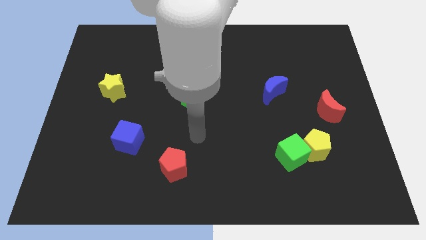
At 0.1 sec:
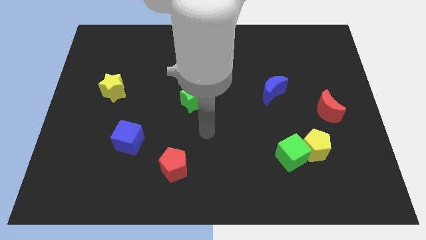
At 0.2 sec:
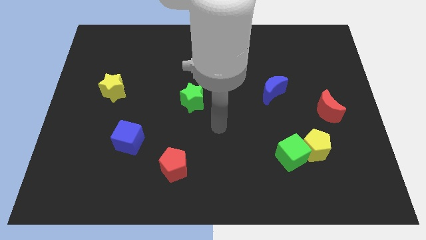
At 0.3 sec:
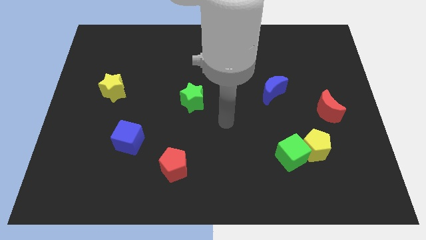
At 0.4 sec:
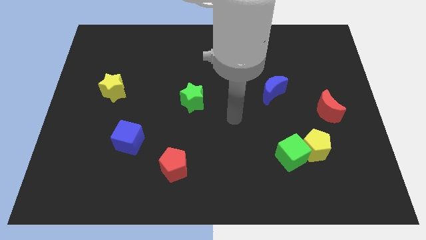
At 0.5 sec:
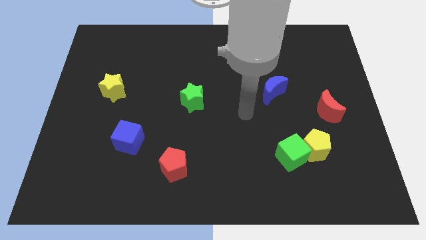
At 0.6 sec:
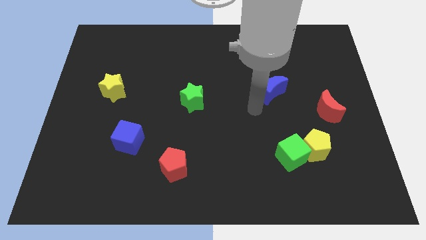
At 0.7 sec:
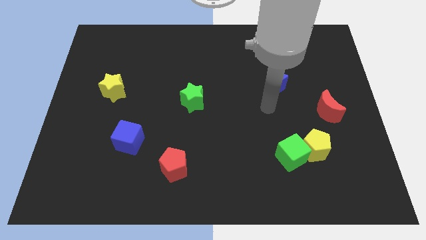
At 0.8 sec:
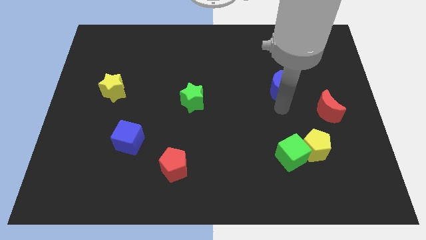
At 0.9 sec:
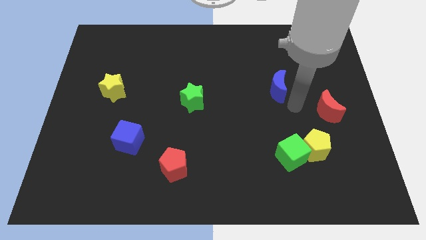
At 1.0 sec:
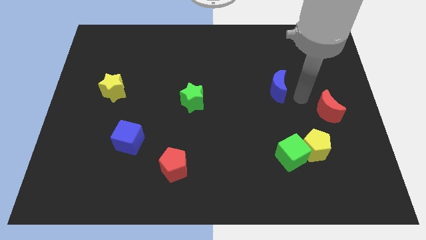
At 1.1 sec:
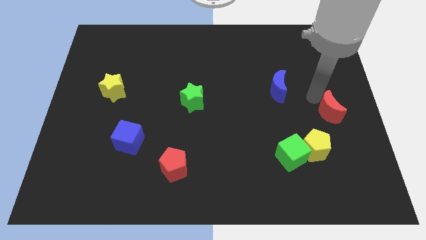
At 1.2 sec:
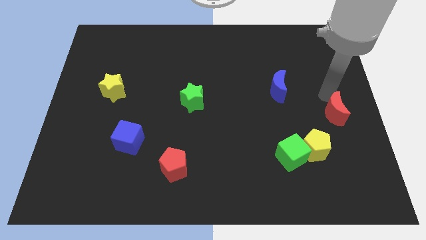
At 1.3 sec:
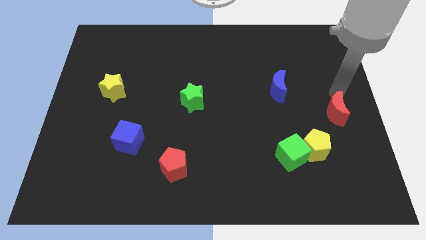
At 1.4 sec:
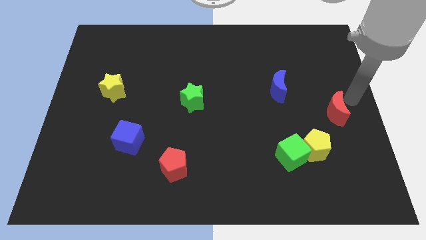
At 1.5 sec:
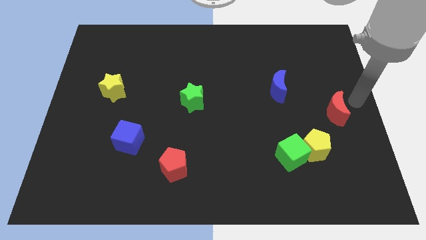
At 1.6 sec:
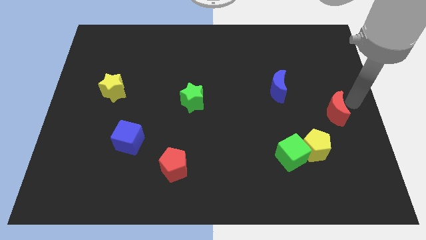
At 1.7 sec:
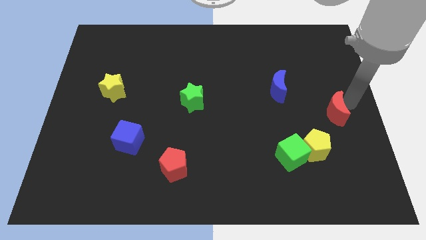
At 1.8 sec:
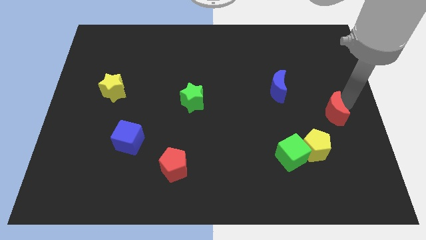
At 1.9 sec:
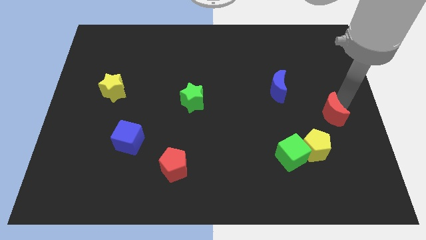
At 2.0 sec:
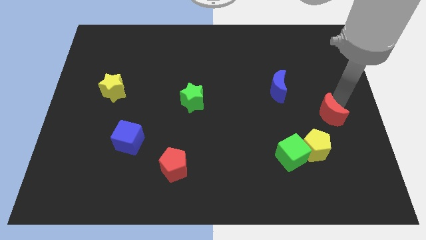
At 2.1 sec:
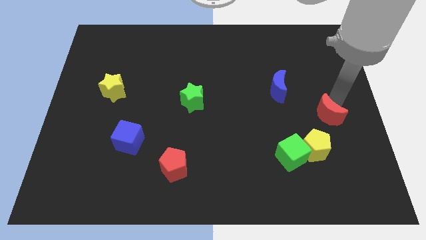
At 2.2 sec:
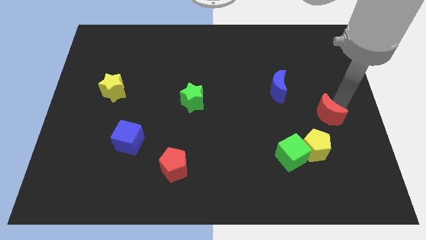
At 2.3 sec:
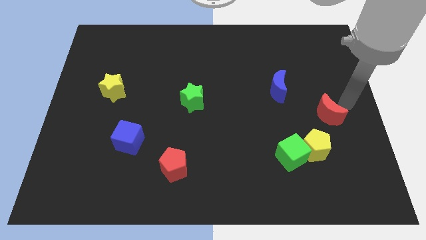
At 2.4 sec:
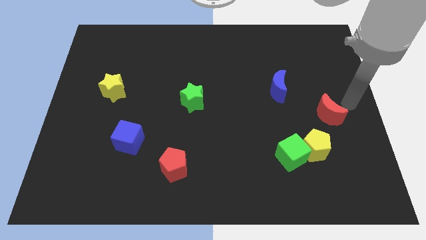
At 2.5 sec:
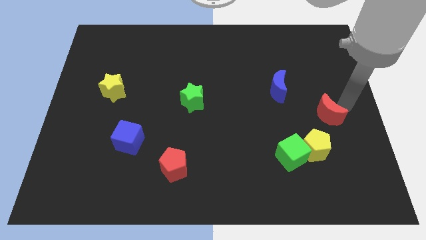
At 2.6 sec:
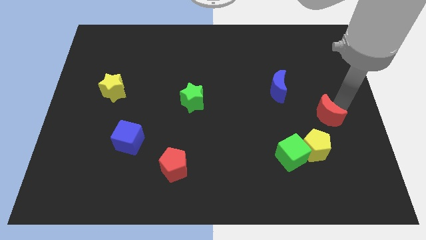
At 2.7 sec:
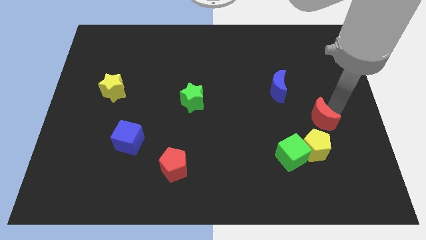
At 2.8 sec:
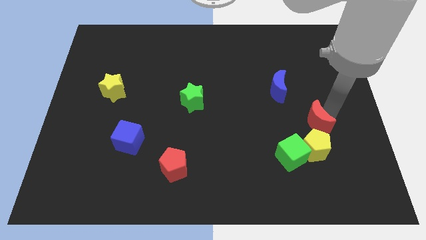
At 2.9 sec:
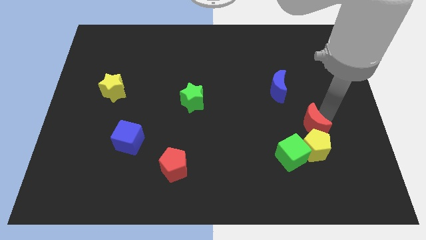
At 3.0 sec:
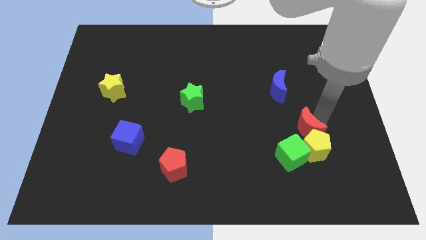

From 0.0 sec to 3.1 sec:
push the red moon a little bit downwards and left diagonally

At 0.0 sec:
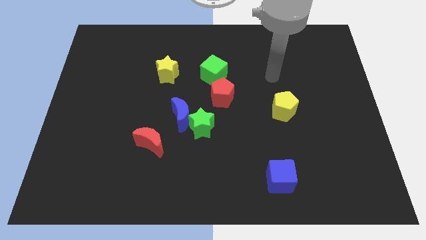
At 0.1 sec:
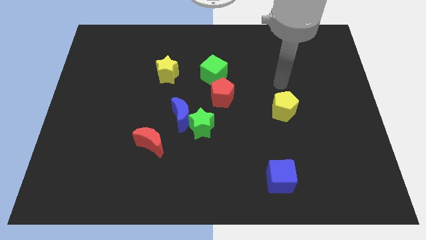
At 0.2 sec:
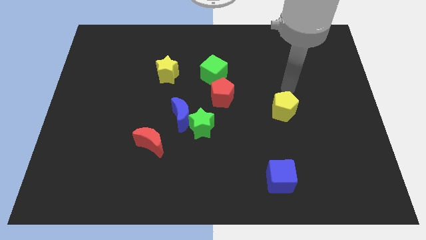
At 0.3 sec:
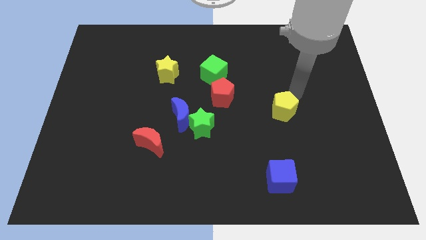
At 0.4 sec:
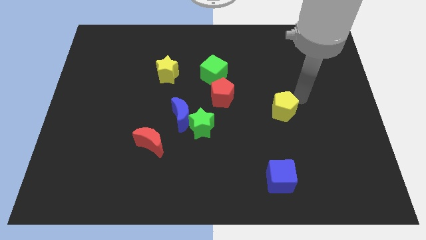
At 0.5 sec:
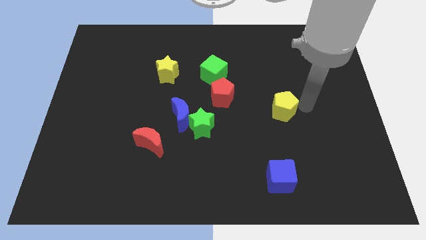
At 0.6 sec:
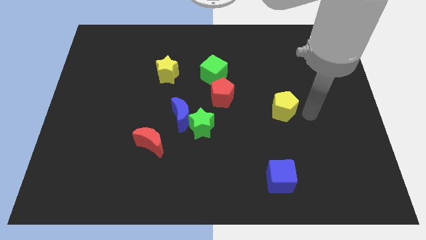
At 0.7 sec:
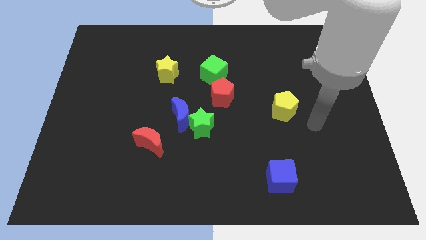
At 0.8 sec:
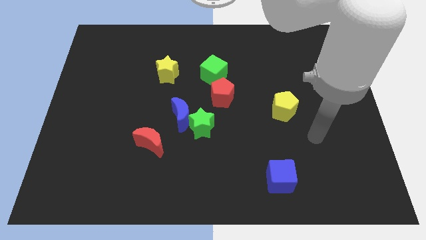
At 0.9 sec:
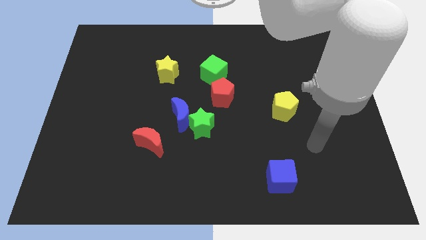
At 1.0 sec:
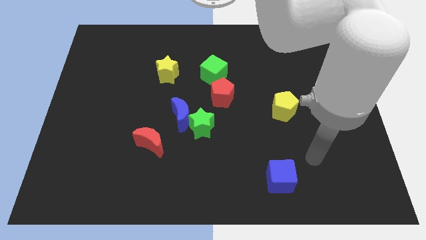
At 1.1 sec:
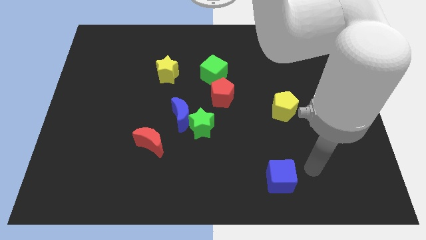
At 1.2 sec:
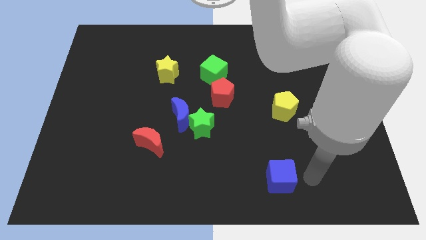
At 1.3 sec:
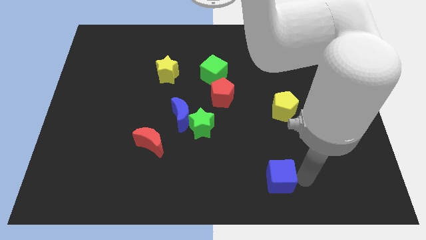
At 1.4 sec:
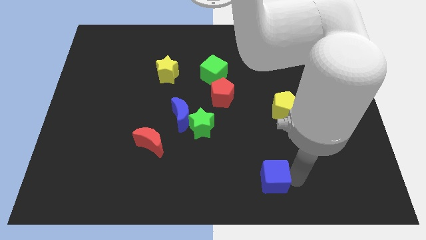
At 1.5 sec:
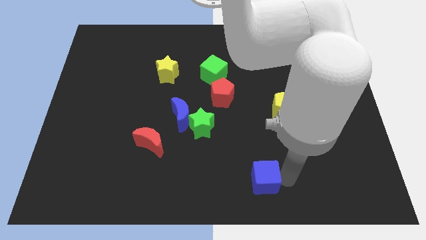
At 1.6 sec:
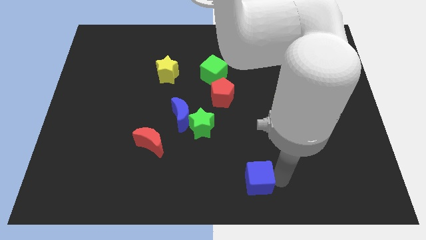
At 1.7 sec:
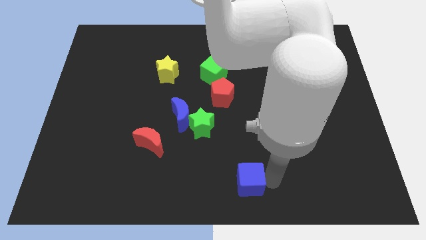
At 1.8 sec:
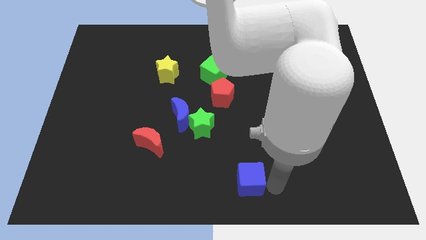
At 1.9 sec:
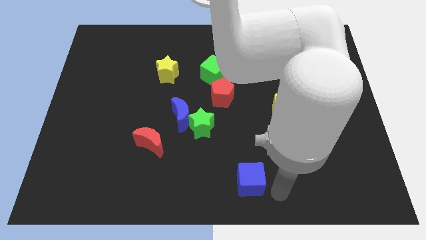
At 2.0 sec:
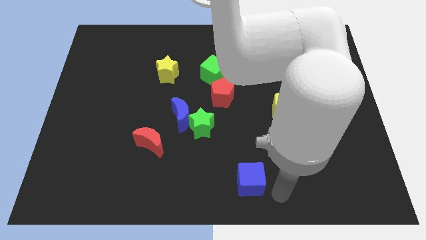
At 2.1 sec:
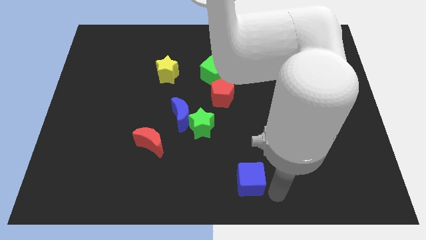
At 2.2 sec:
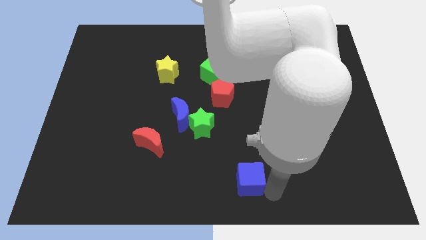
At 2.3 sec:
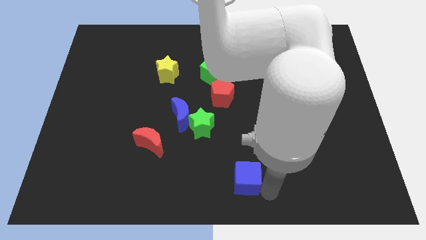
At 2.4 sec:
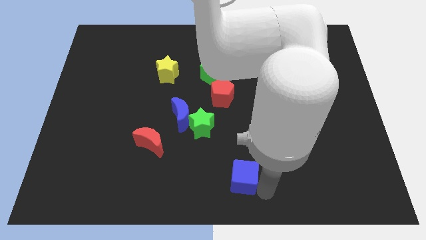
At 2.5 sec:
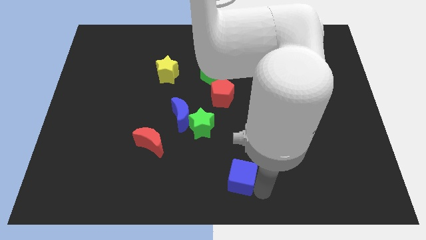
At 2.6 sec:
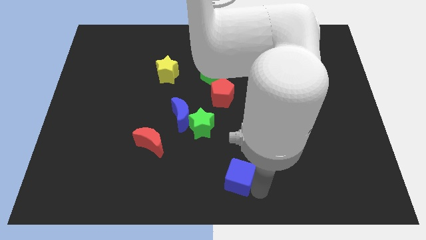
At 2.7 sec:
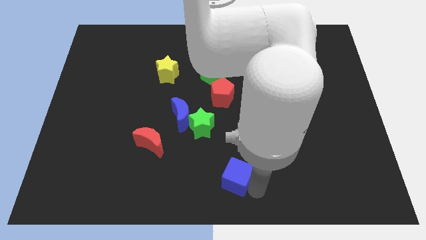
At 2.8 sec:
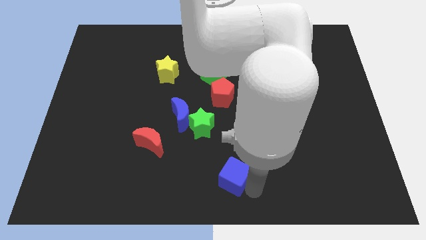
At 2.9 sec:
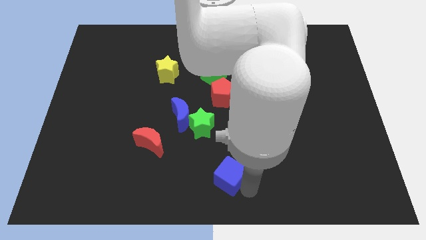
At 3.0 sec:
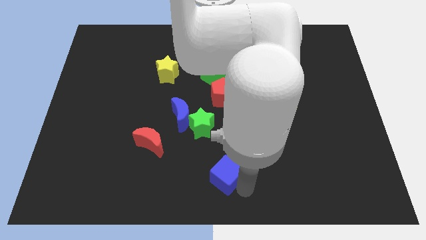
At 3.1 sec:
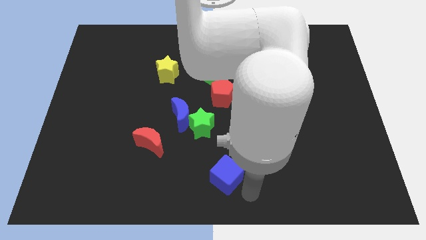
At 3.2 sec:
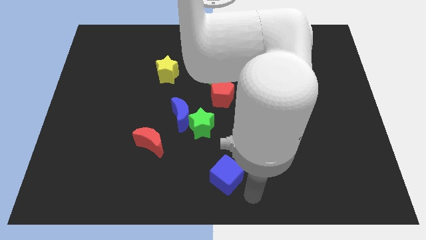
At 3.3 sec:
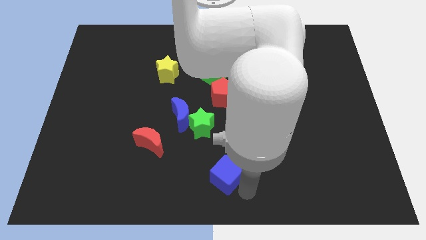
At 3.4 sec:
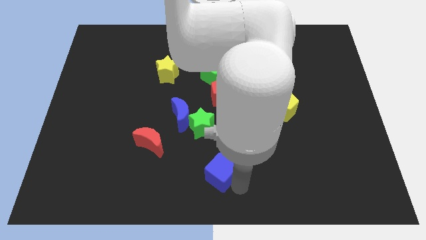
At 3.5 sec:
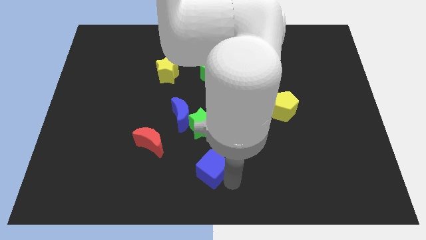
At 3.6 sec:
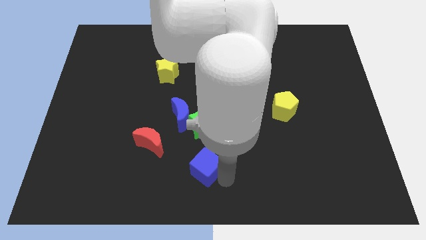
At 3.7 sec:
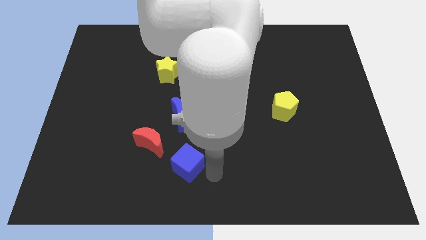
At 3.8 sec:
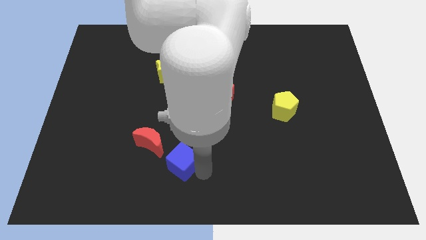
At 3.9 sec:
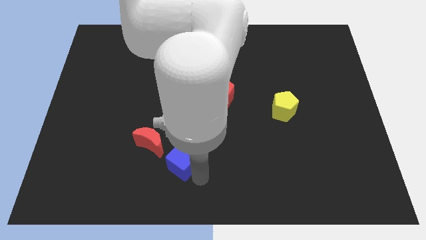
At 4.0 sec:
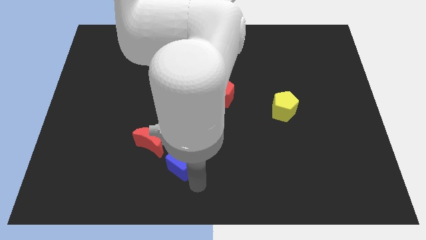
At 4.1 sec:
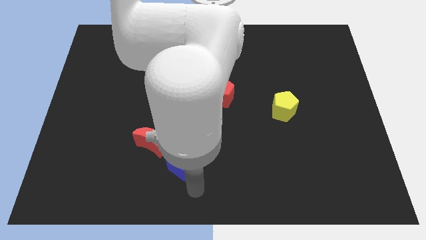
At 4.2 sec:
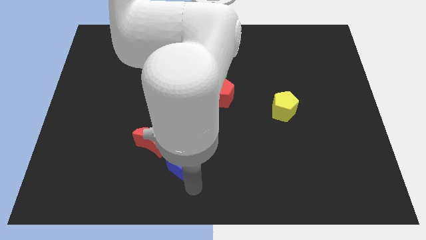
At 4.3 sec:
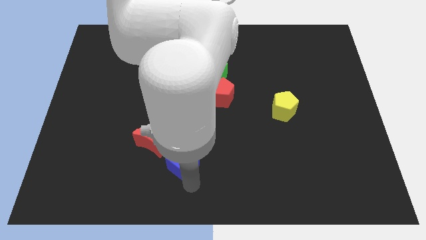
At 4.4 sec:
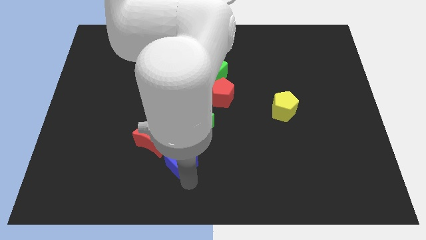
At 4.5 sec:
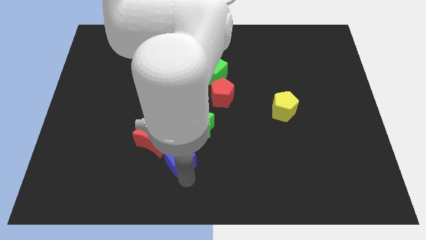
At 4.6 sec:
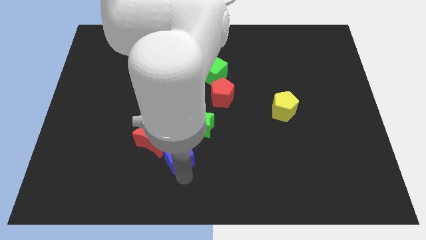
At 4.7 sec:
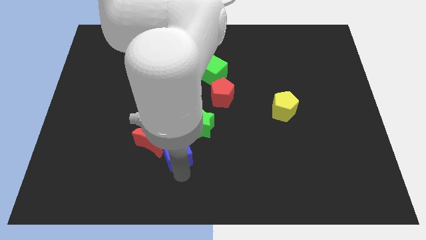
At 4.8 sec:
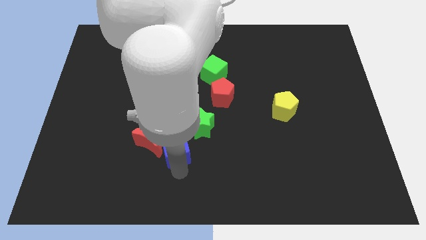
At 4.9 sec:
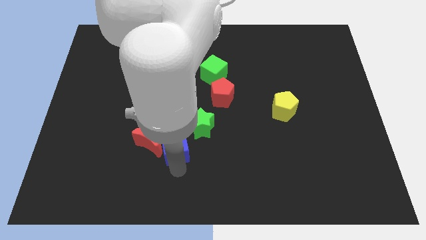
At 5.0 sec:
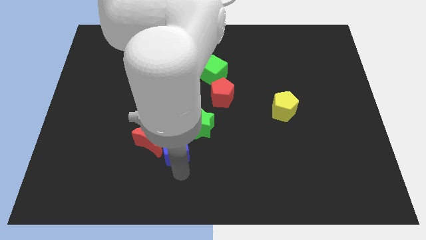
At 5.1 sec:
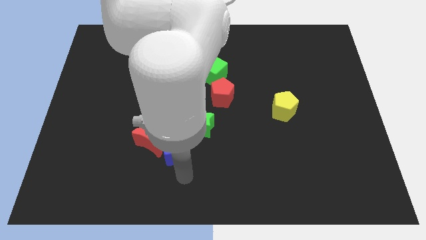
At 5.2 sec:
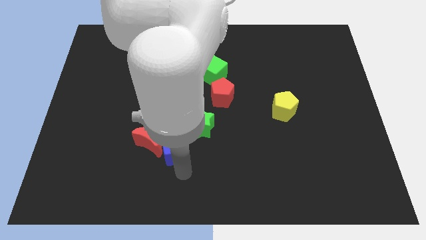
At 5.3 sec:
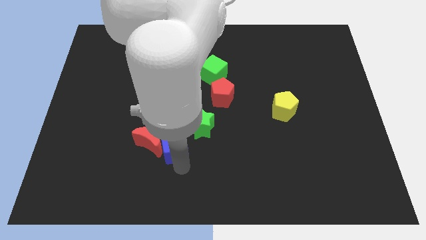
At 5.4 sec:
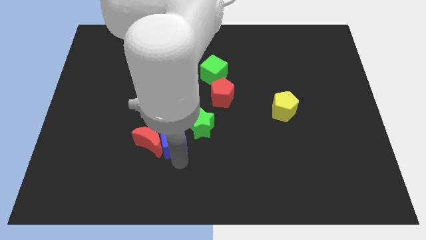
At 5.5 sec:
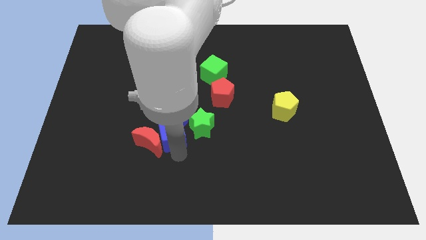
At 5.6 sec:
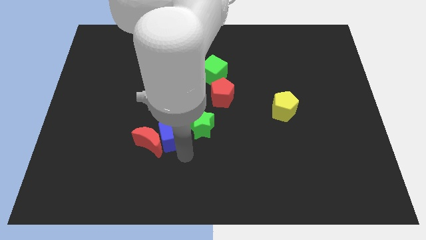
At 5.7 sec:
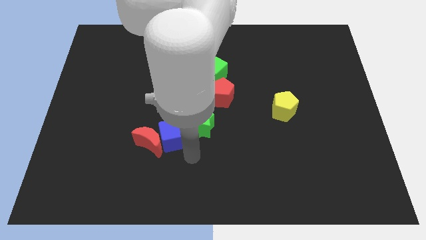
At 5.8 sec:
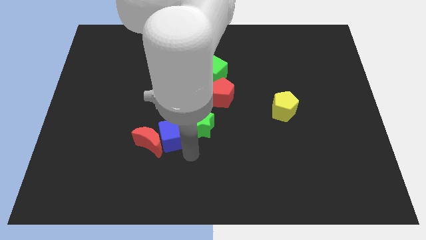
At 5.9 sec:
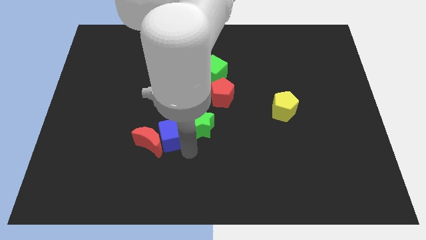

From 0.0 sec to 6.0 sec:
move the blue cube up and left diagonally
